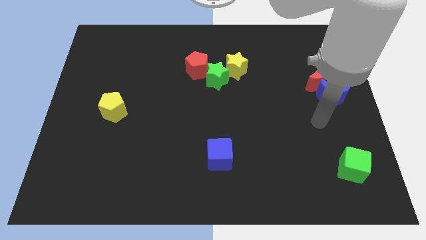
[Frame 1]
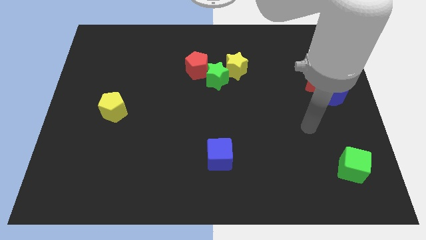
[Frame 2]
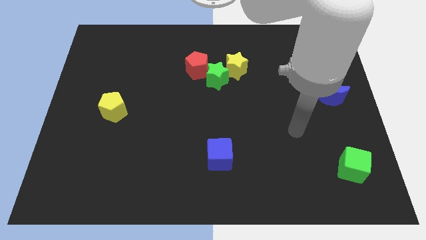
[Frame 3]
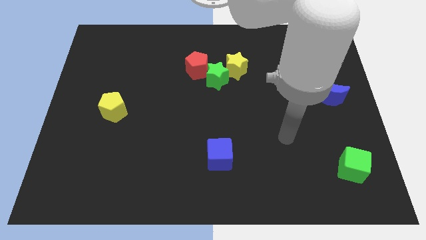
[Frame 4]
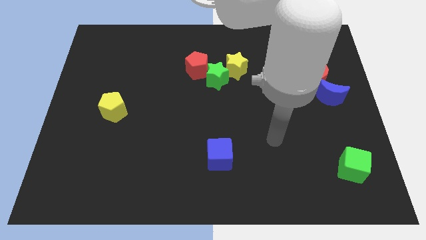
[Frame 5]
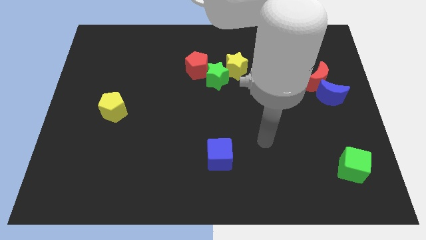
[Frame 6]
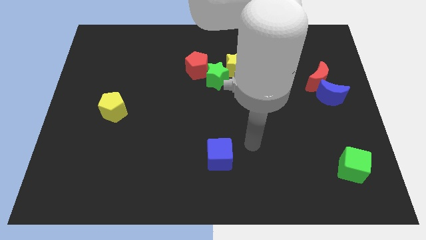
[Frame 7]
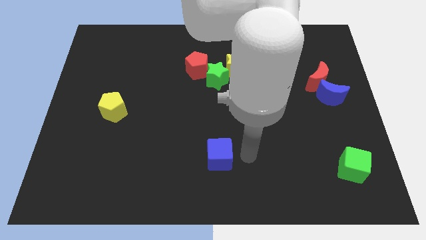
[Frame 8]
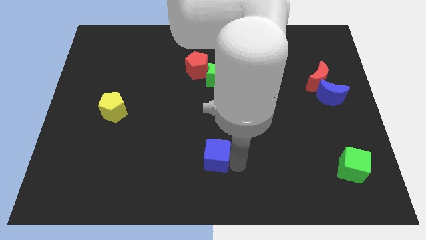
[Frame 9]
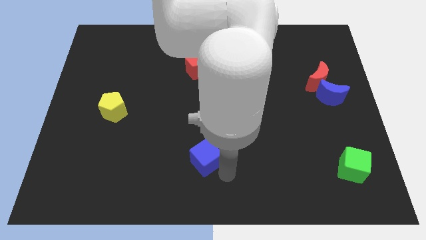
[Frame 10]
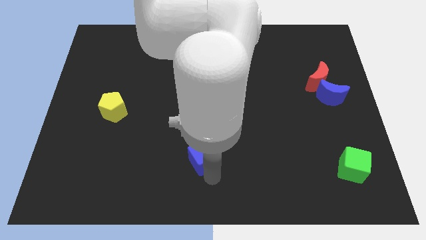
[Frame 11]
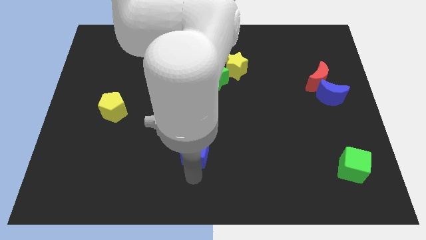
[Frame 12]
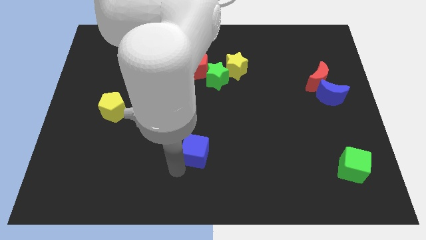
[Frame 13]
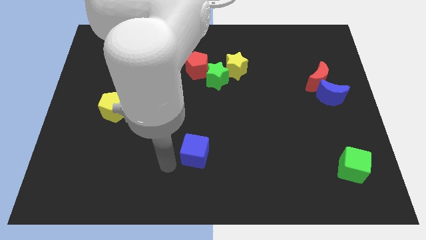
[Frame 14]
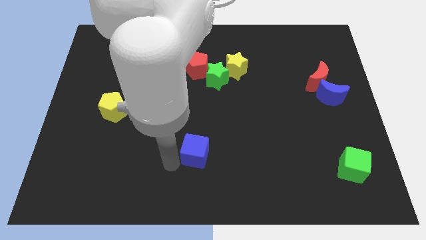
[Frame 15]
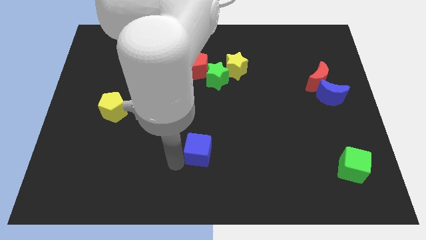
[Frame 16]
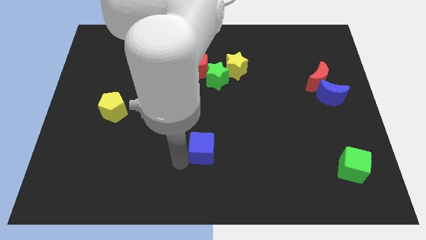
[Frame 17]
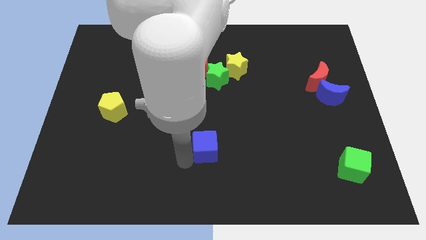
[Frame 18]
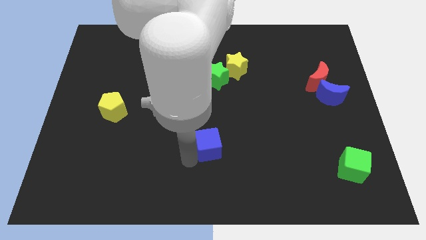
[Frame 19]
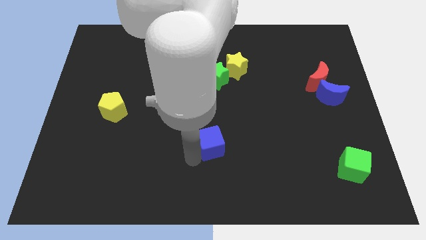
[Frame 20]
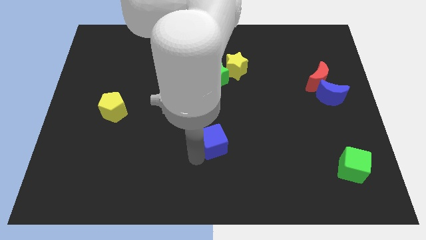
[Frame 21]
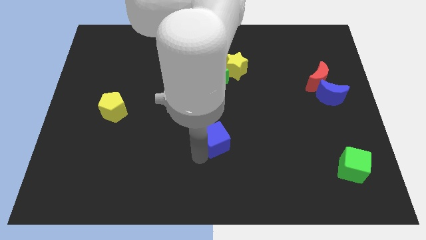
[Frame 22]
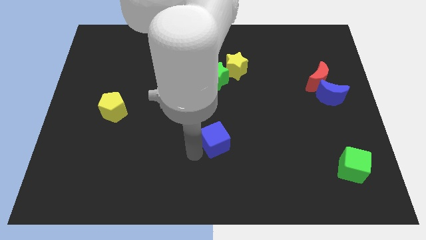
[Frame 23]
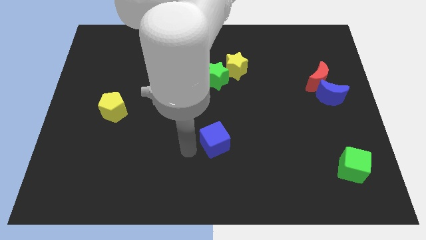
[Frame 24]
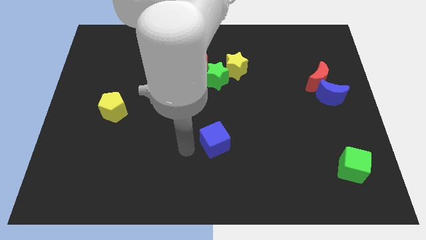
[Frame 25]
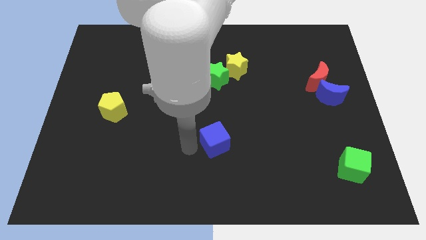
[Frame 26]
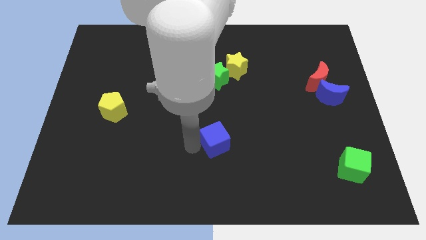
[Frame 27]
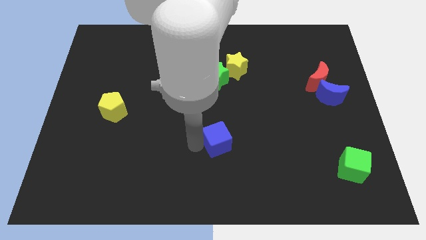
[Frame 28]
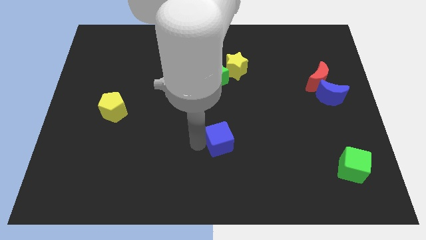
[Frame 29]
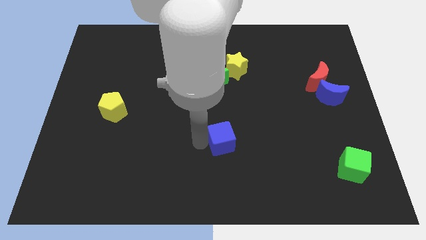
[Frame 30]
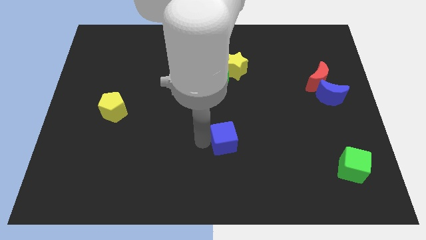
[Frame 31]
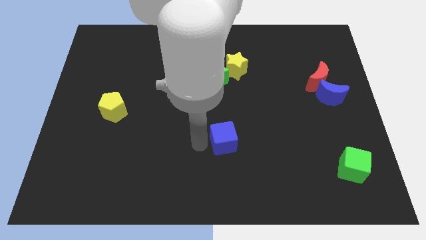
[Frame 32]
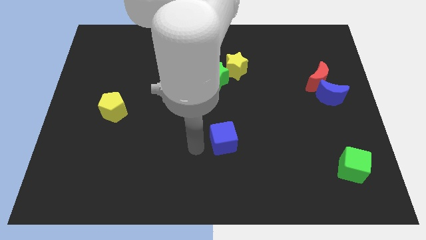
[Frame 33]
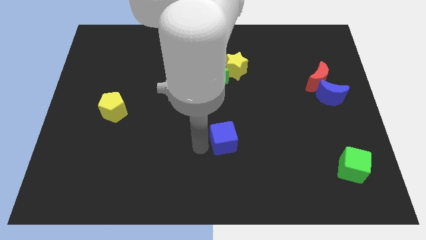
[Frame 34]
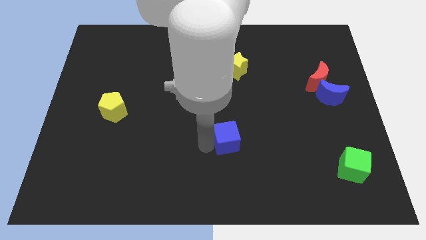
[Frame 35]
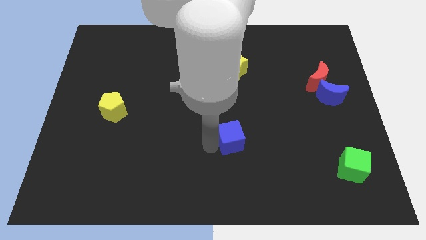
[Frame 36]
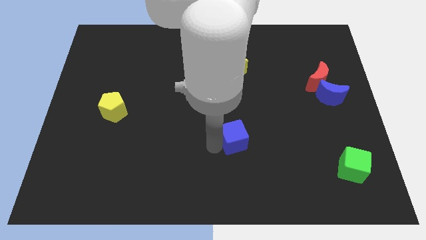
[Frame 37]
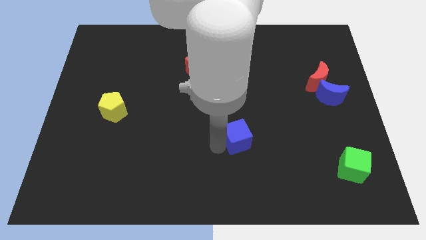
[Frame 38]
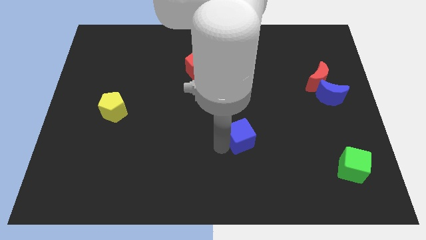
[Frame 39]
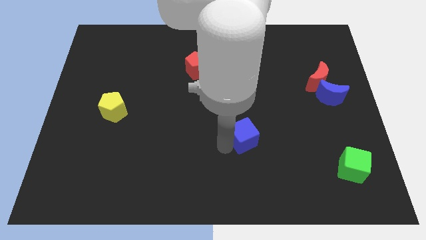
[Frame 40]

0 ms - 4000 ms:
slightly move the blue cube upwards and then right

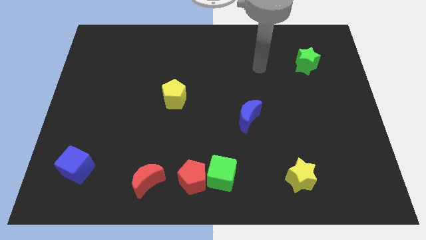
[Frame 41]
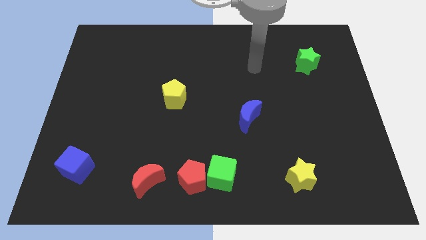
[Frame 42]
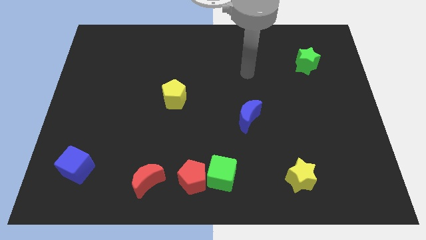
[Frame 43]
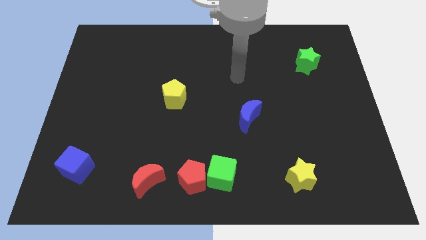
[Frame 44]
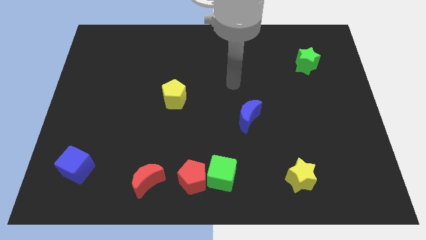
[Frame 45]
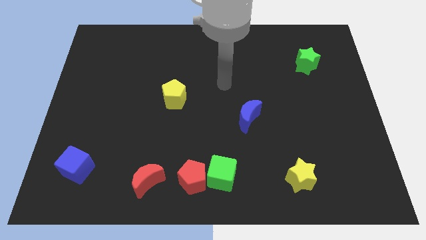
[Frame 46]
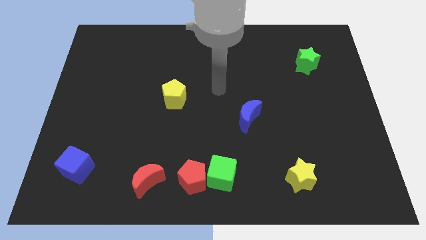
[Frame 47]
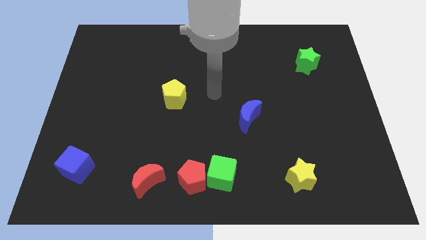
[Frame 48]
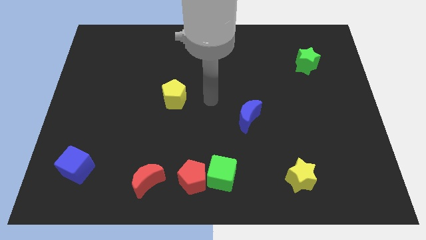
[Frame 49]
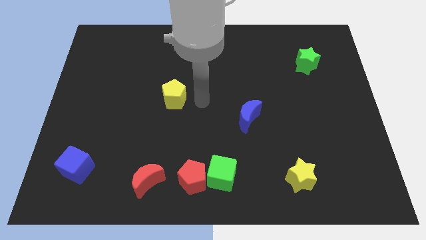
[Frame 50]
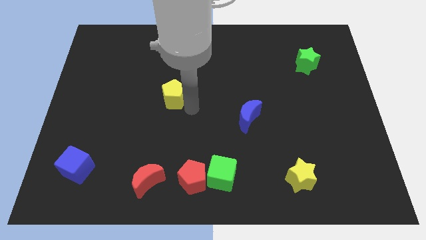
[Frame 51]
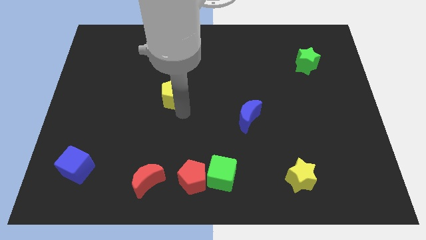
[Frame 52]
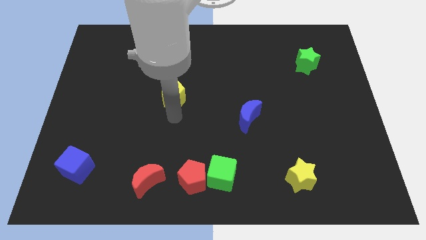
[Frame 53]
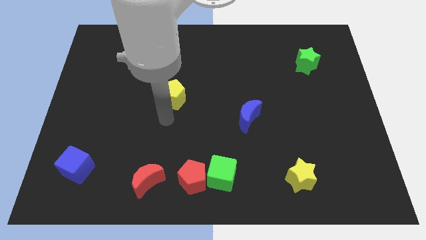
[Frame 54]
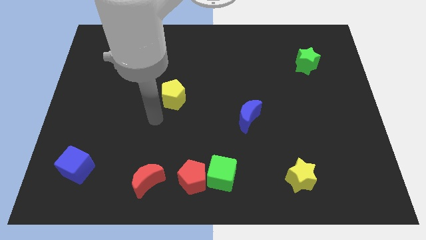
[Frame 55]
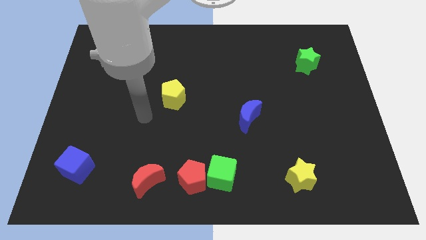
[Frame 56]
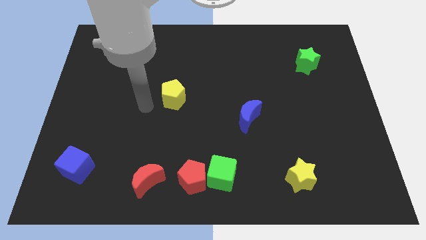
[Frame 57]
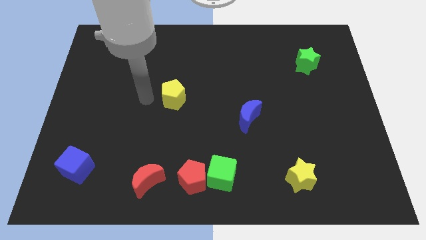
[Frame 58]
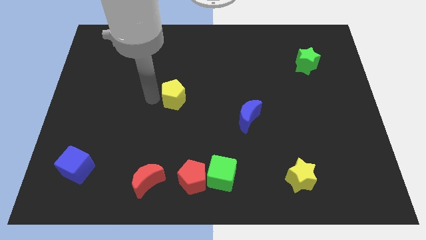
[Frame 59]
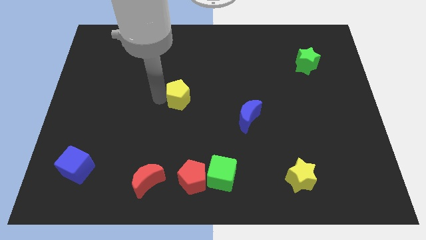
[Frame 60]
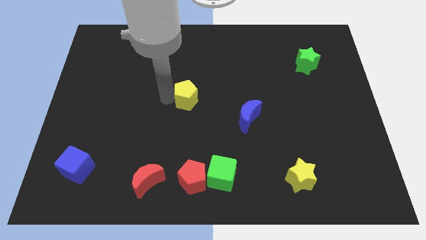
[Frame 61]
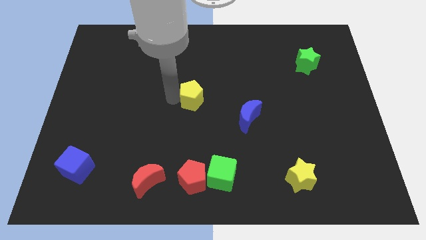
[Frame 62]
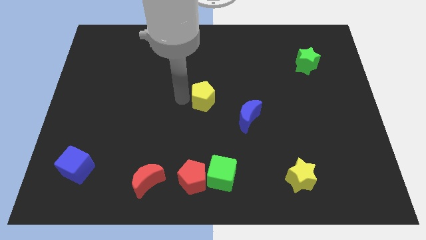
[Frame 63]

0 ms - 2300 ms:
push the yellow pentagon right somewhat

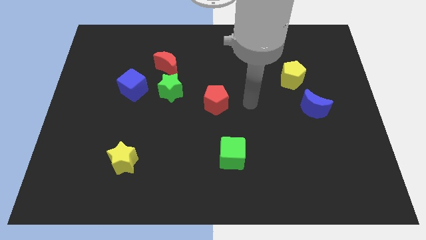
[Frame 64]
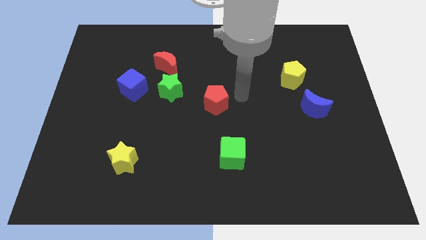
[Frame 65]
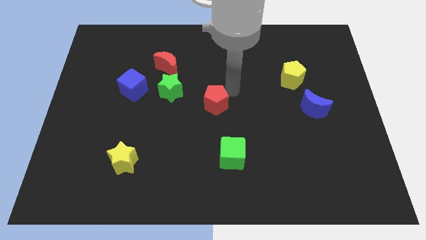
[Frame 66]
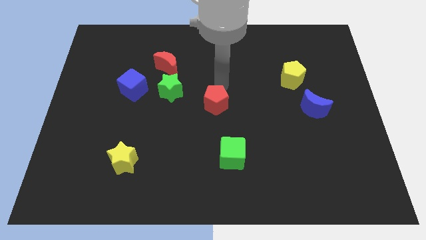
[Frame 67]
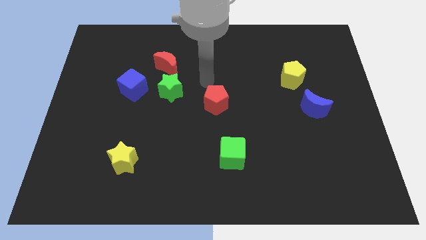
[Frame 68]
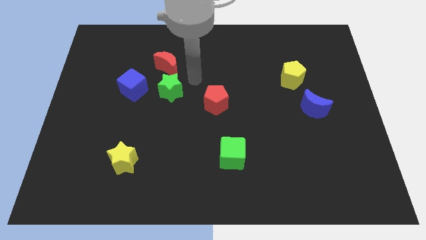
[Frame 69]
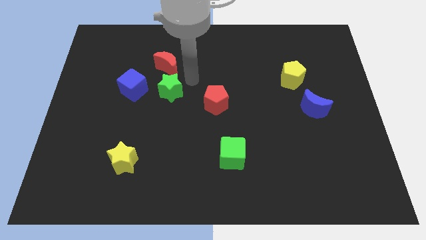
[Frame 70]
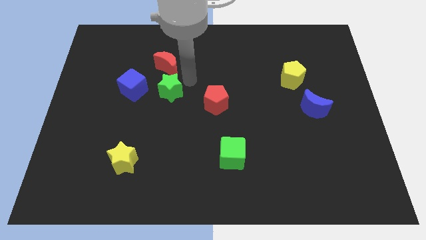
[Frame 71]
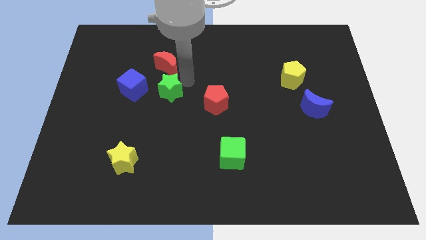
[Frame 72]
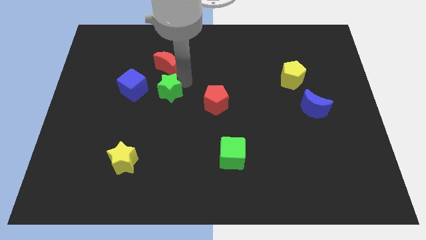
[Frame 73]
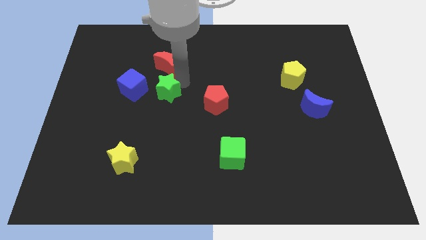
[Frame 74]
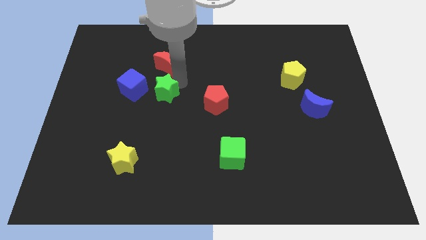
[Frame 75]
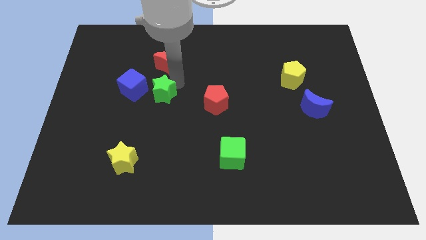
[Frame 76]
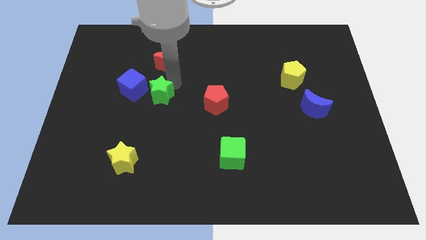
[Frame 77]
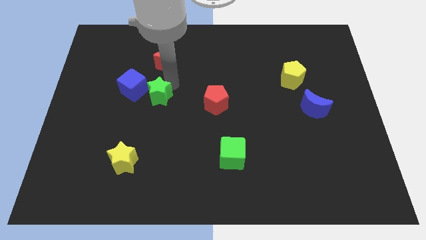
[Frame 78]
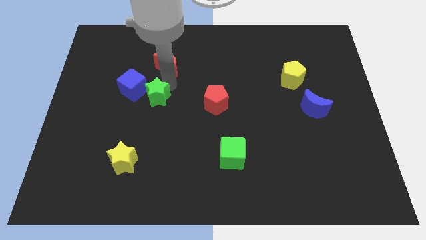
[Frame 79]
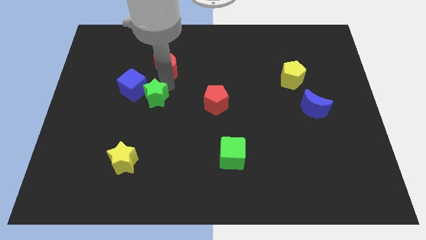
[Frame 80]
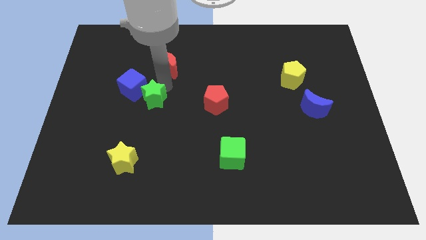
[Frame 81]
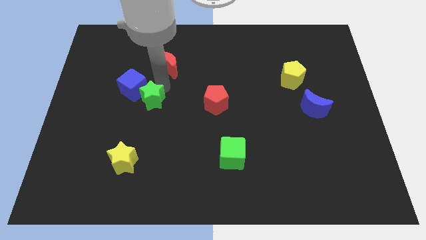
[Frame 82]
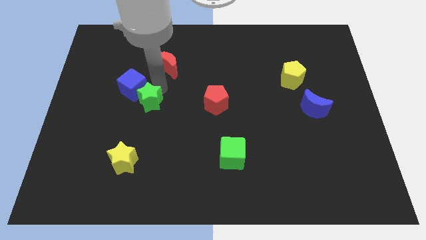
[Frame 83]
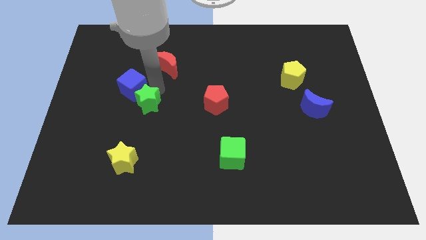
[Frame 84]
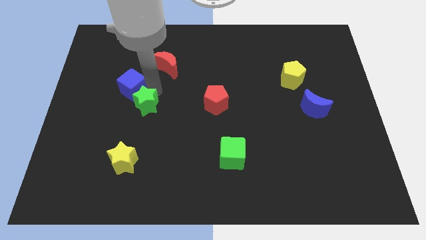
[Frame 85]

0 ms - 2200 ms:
slide the green star down and to the left somewhat
